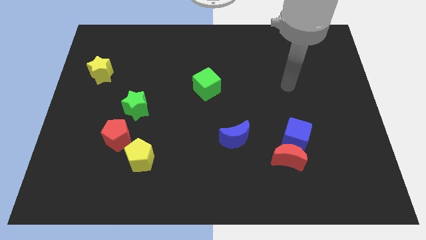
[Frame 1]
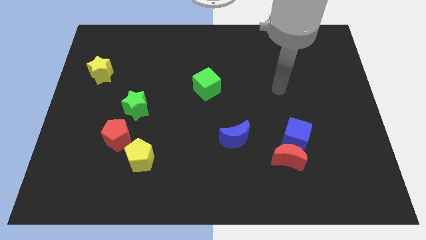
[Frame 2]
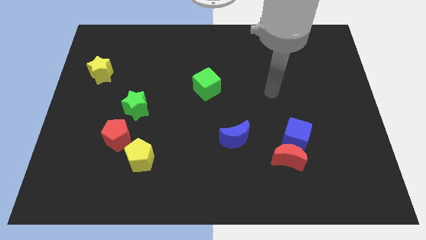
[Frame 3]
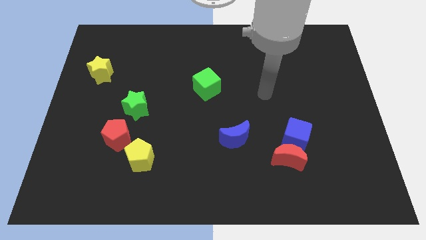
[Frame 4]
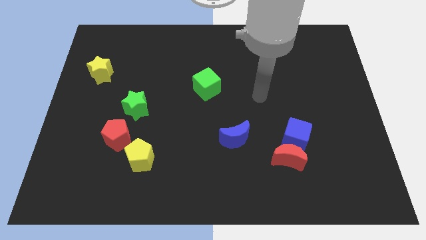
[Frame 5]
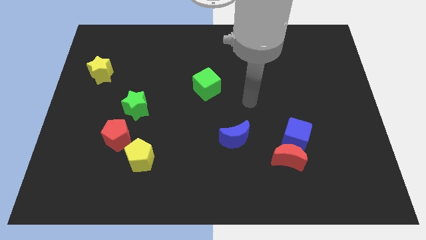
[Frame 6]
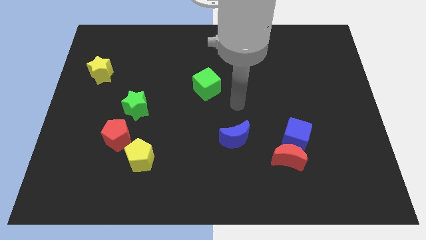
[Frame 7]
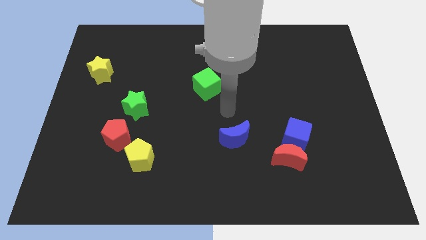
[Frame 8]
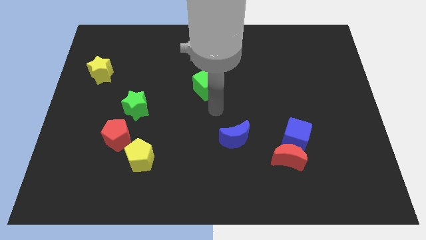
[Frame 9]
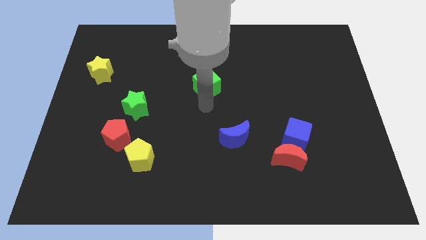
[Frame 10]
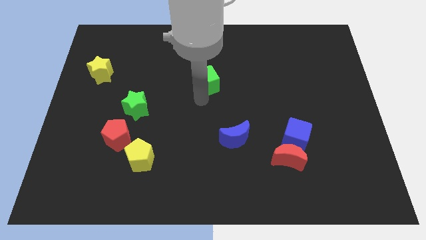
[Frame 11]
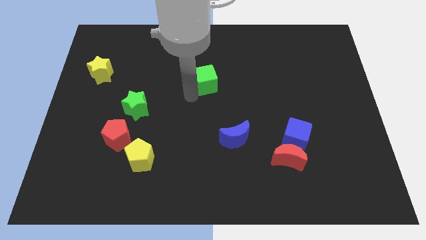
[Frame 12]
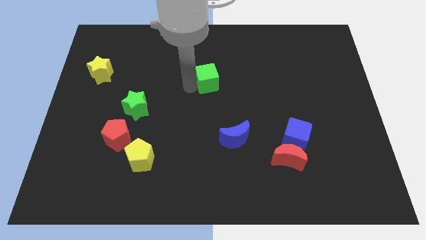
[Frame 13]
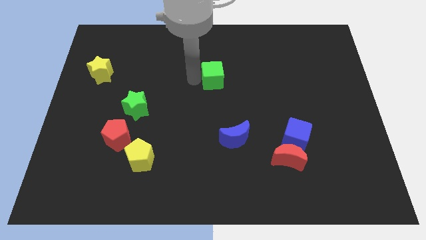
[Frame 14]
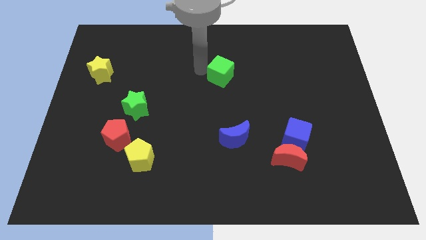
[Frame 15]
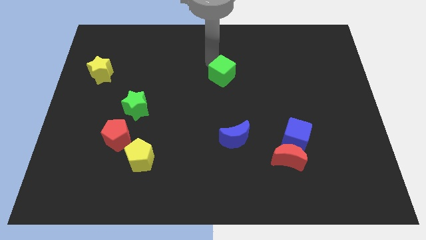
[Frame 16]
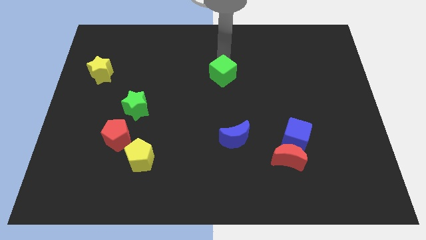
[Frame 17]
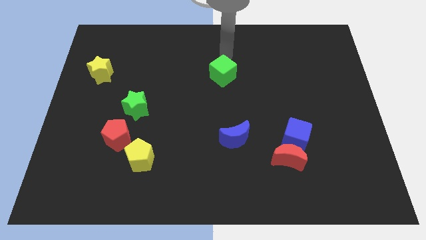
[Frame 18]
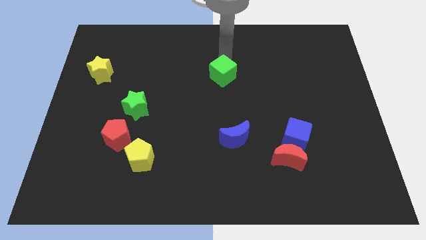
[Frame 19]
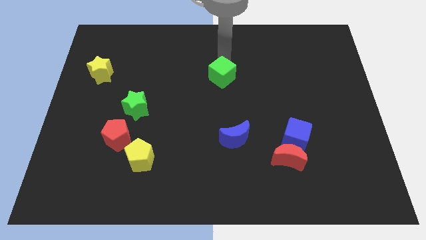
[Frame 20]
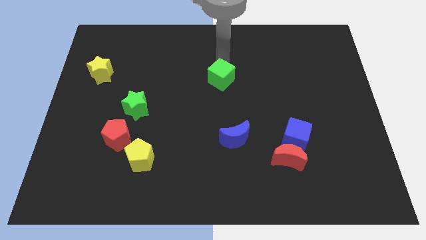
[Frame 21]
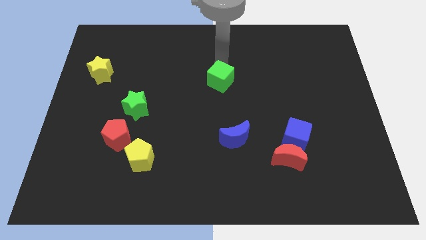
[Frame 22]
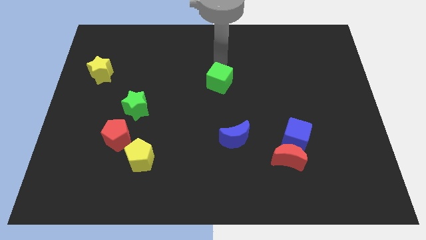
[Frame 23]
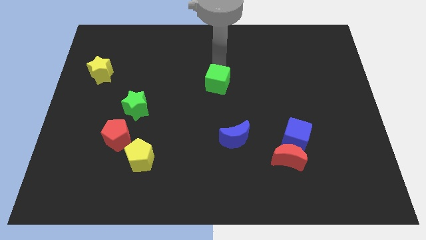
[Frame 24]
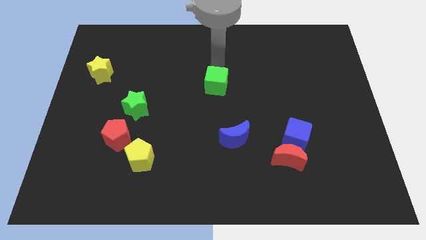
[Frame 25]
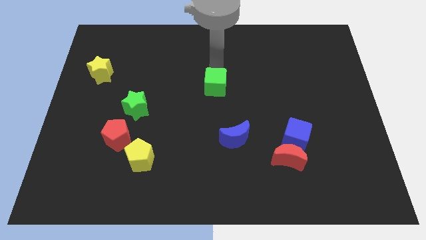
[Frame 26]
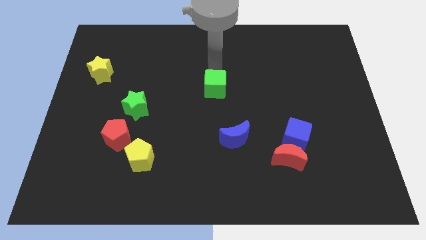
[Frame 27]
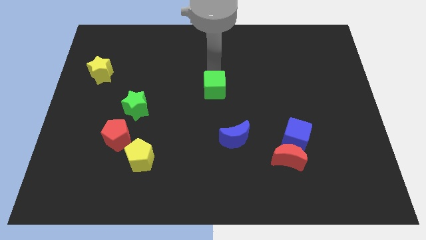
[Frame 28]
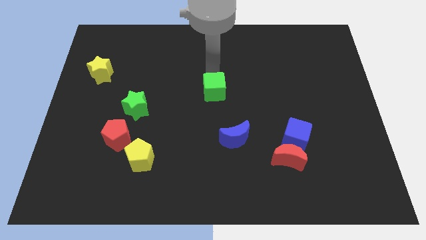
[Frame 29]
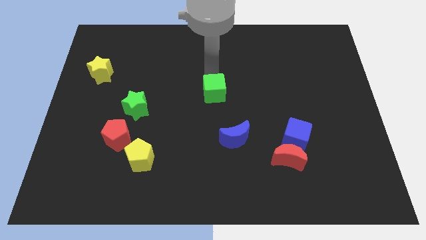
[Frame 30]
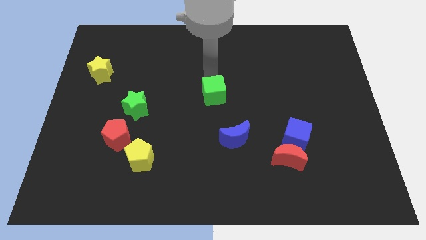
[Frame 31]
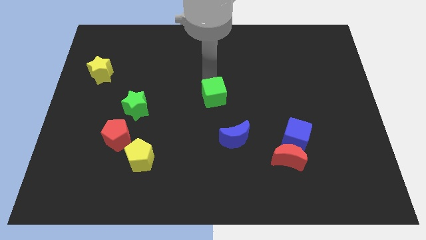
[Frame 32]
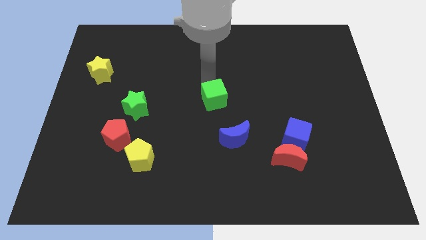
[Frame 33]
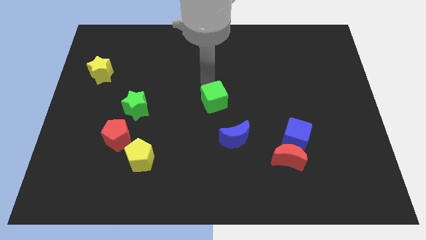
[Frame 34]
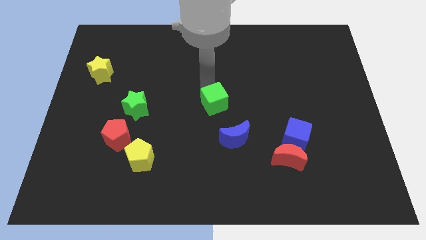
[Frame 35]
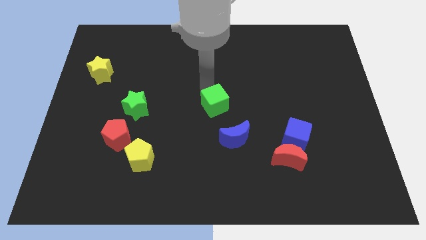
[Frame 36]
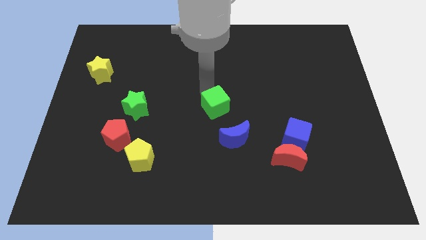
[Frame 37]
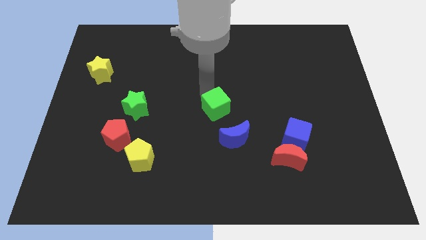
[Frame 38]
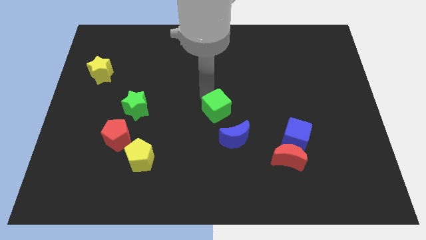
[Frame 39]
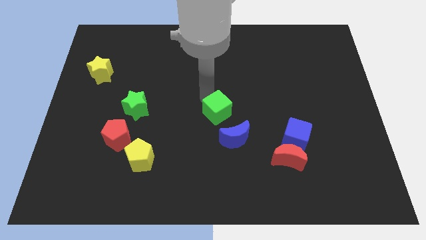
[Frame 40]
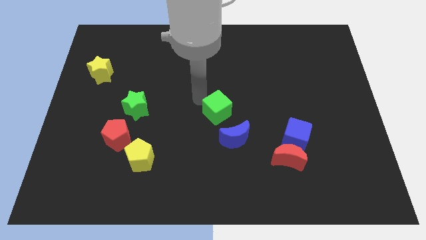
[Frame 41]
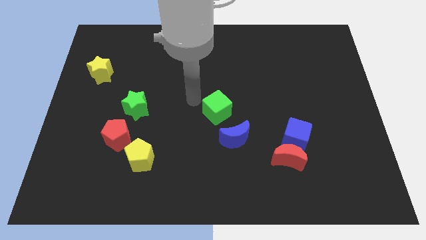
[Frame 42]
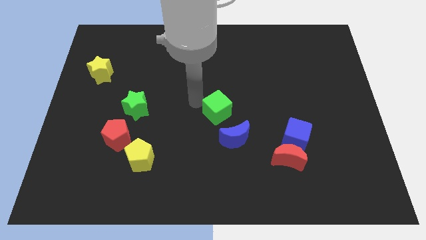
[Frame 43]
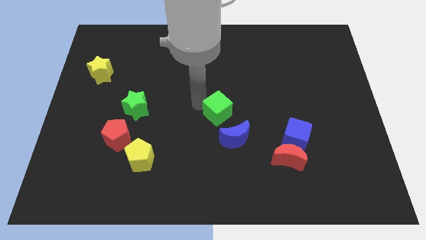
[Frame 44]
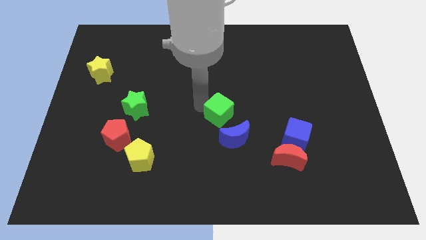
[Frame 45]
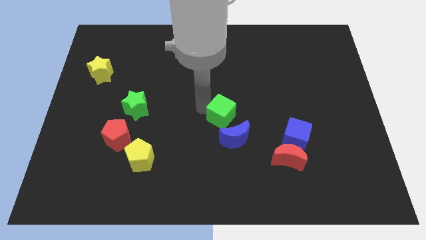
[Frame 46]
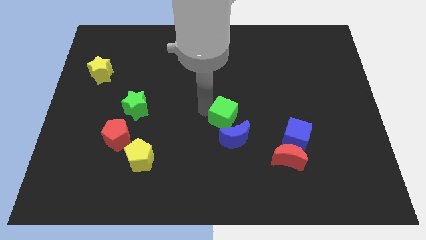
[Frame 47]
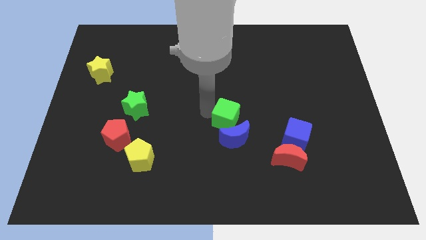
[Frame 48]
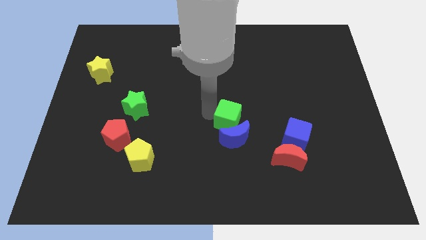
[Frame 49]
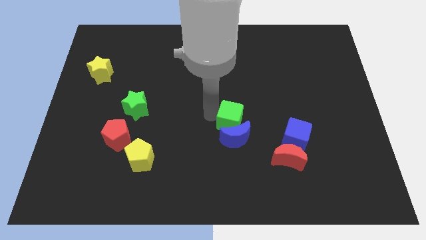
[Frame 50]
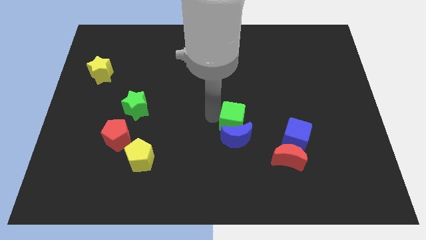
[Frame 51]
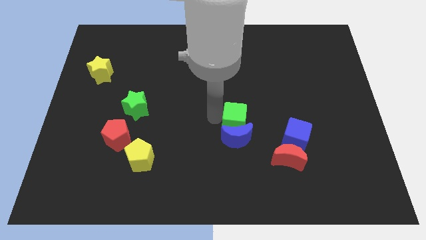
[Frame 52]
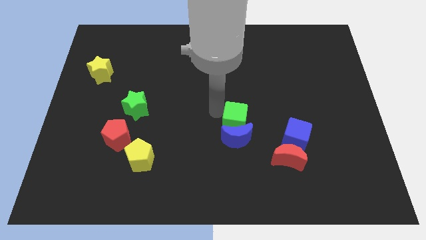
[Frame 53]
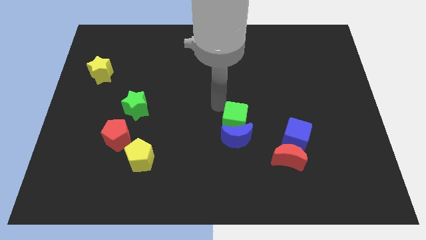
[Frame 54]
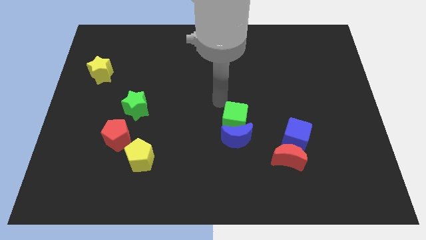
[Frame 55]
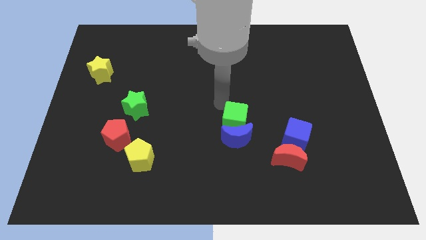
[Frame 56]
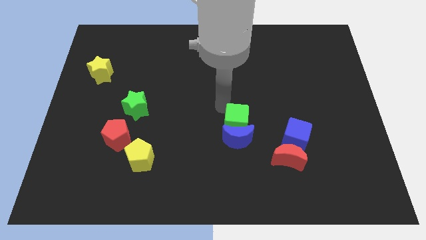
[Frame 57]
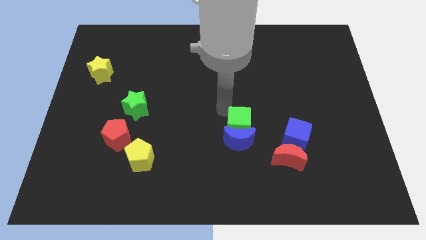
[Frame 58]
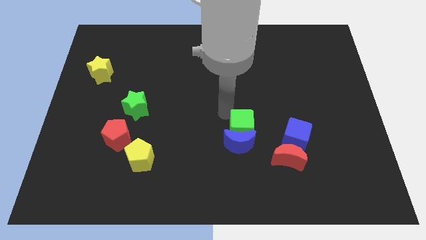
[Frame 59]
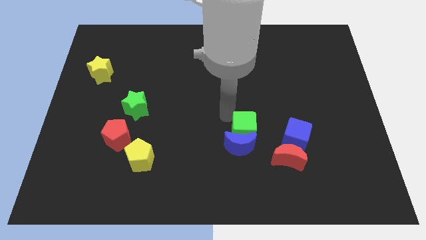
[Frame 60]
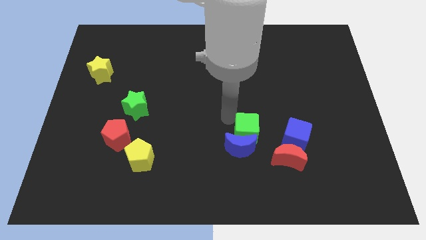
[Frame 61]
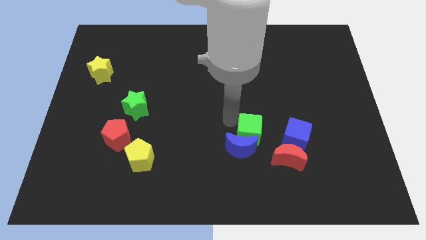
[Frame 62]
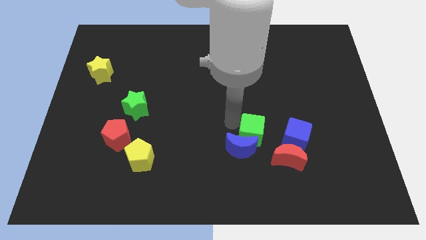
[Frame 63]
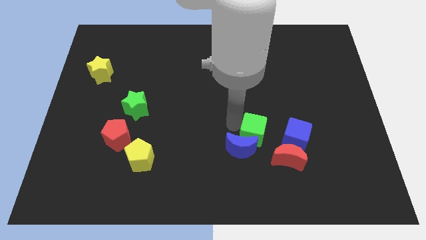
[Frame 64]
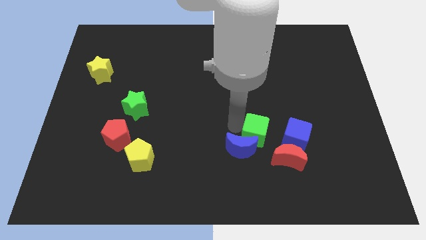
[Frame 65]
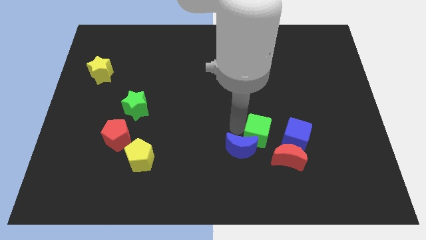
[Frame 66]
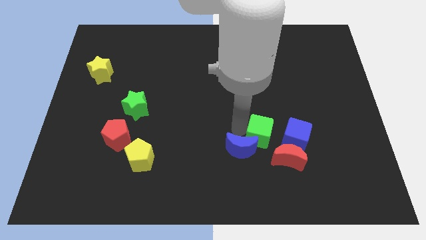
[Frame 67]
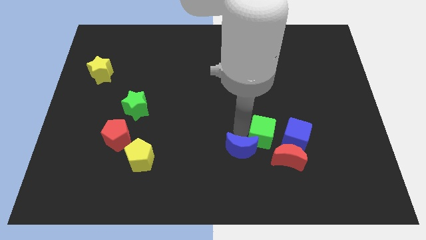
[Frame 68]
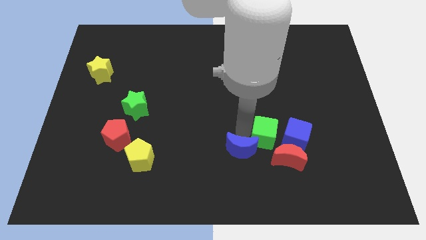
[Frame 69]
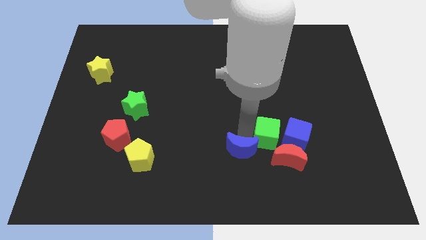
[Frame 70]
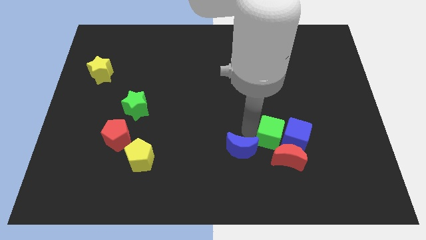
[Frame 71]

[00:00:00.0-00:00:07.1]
push the green cube diagonally downwards and right

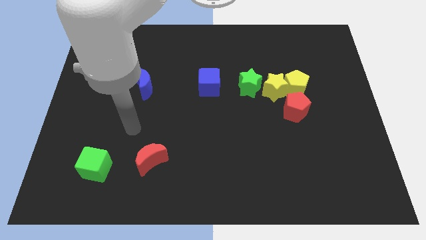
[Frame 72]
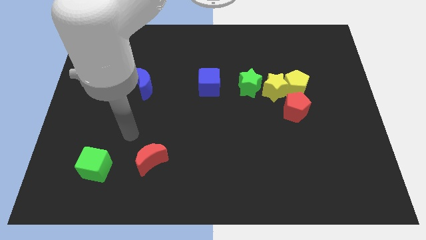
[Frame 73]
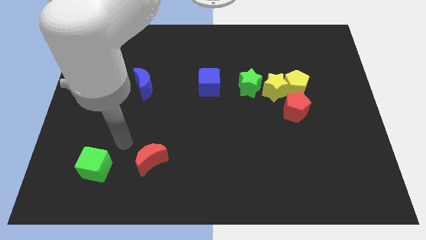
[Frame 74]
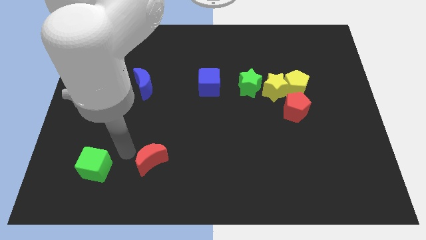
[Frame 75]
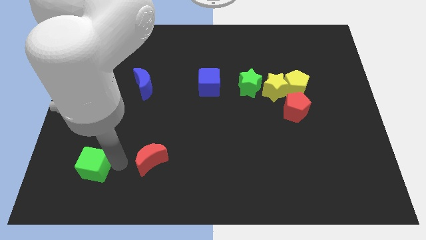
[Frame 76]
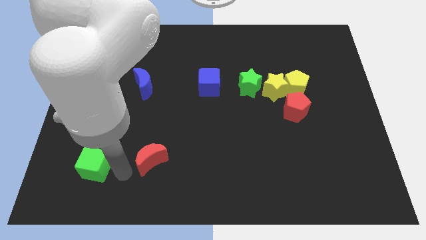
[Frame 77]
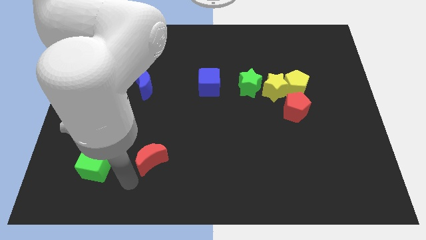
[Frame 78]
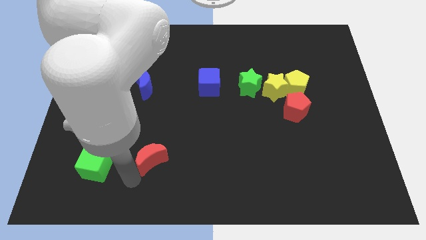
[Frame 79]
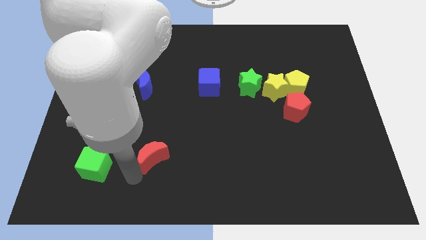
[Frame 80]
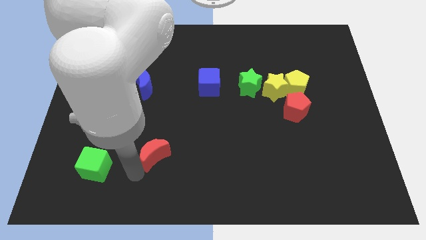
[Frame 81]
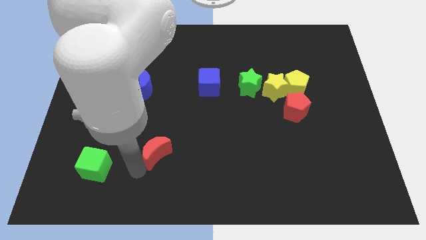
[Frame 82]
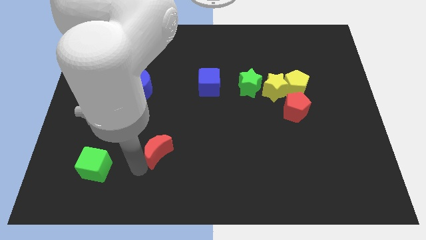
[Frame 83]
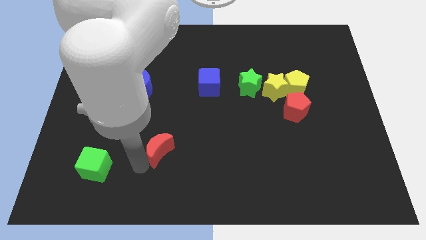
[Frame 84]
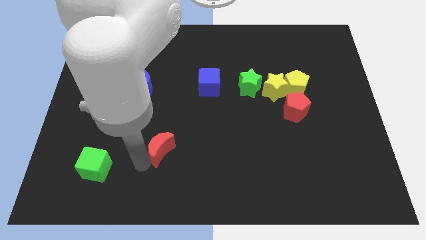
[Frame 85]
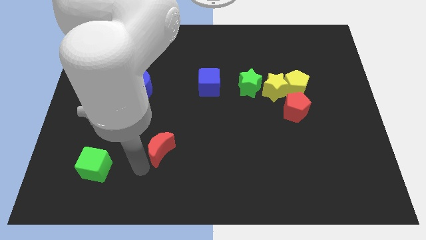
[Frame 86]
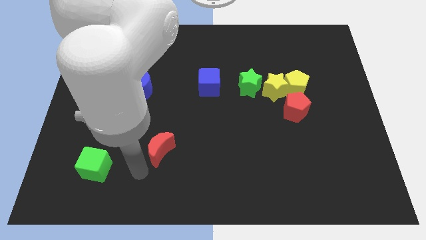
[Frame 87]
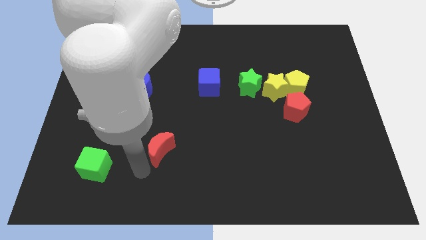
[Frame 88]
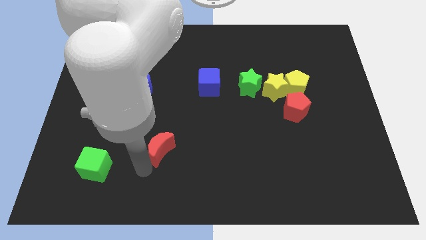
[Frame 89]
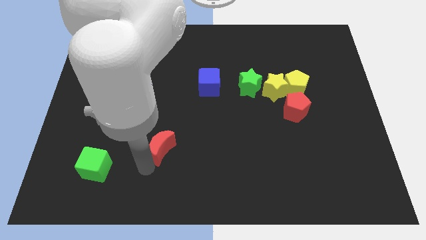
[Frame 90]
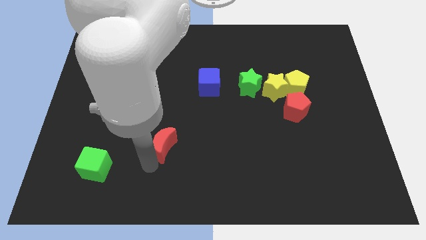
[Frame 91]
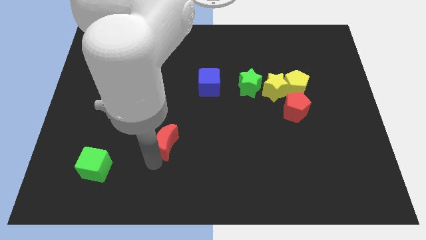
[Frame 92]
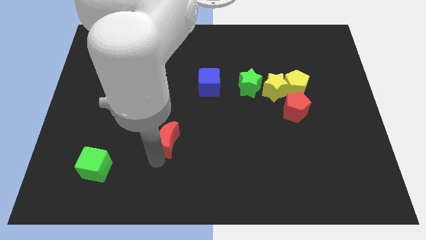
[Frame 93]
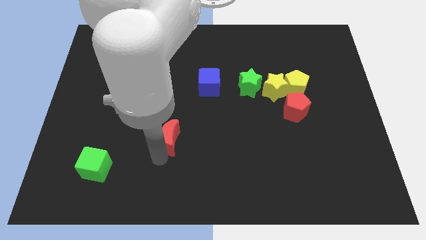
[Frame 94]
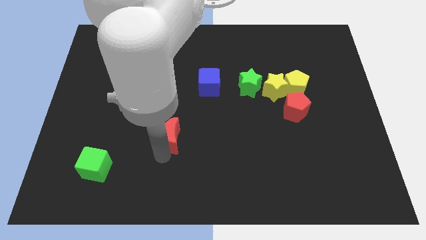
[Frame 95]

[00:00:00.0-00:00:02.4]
slide the red moon diagonally up and to the right somewhat
